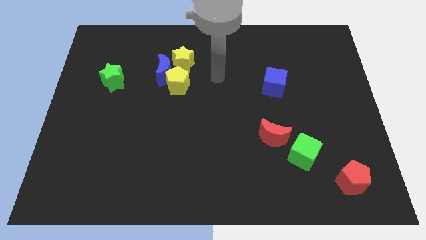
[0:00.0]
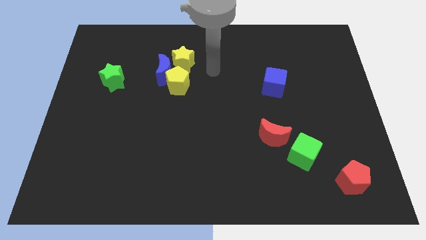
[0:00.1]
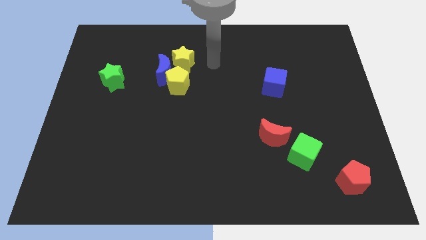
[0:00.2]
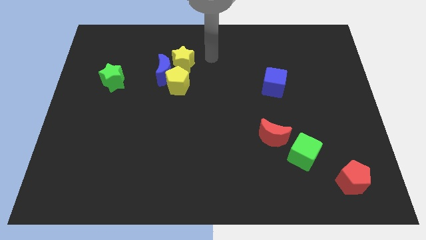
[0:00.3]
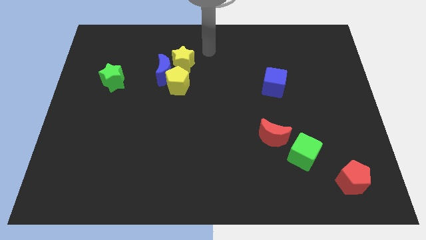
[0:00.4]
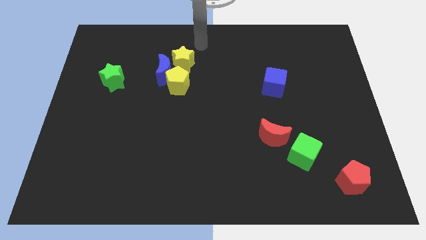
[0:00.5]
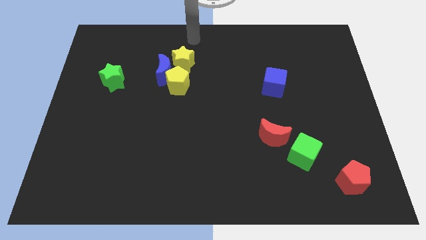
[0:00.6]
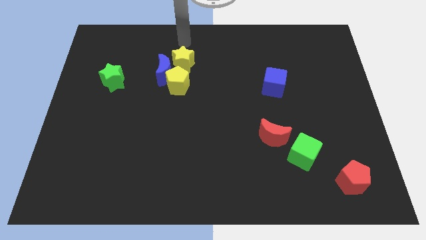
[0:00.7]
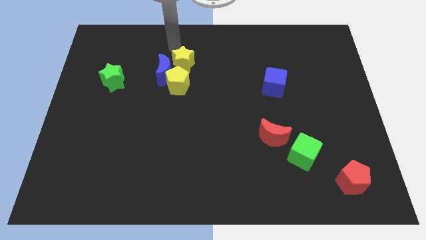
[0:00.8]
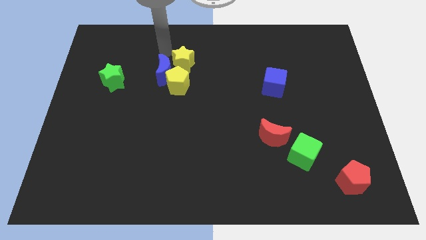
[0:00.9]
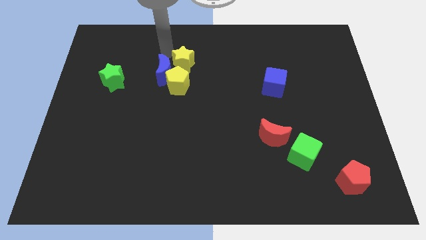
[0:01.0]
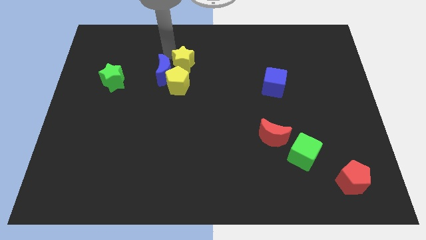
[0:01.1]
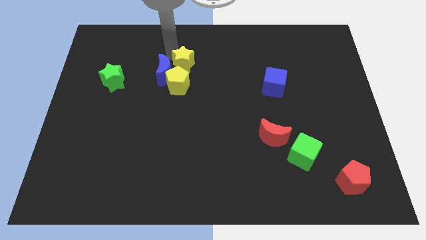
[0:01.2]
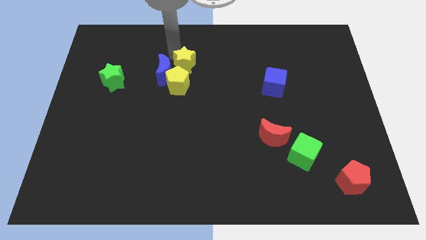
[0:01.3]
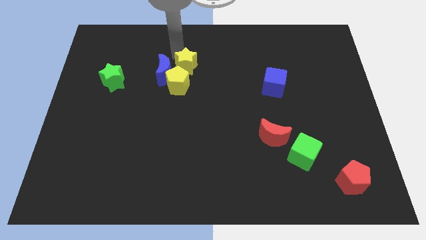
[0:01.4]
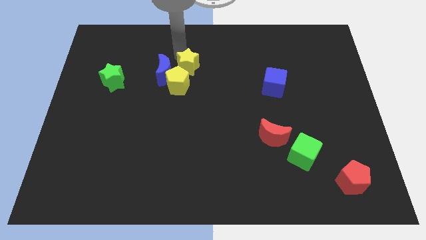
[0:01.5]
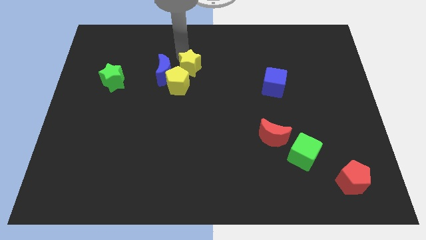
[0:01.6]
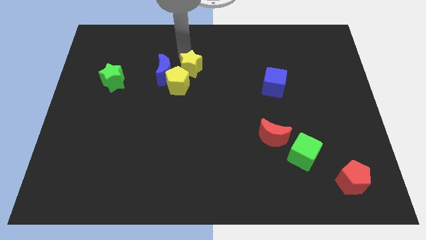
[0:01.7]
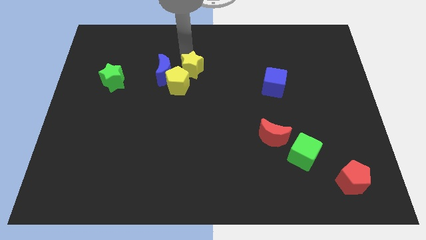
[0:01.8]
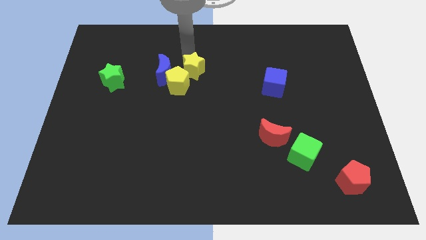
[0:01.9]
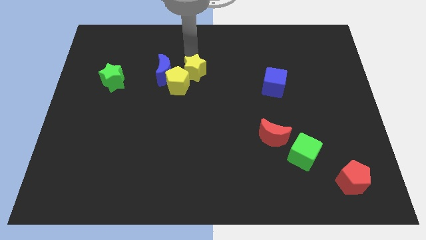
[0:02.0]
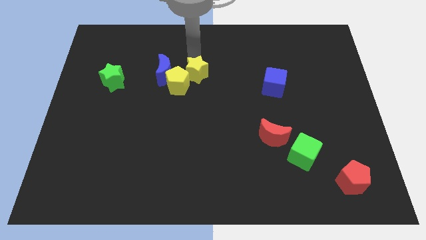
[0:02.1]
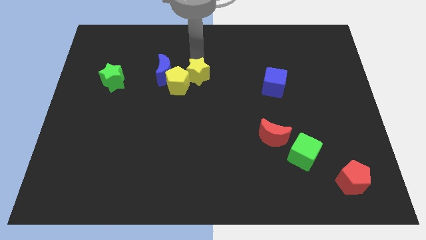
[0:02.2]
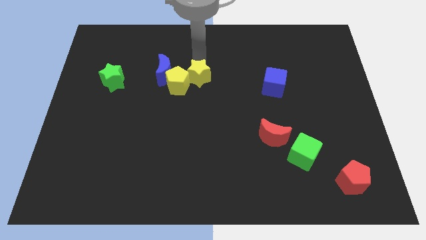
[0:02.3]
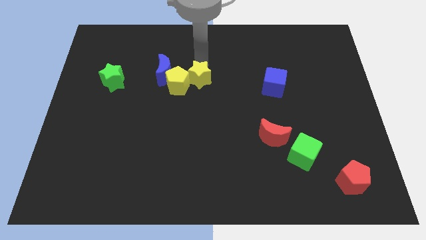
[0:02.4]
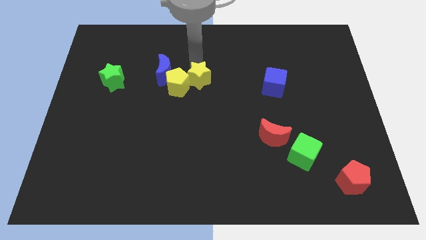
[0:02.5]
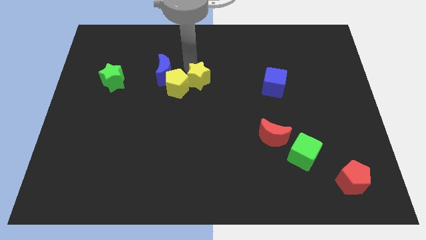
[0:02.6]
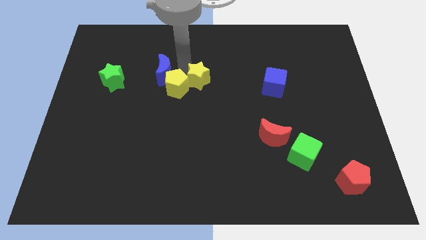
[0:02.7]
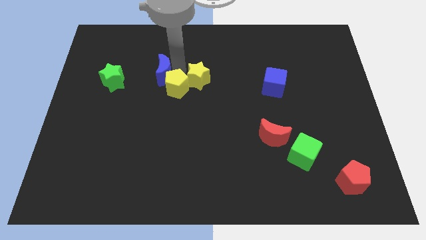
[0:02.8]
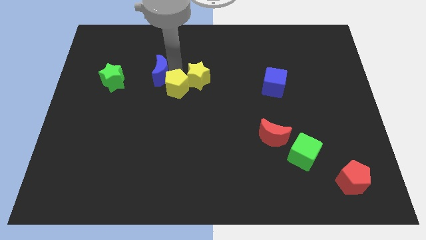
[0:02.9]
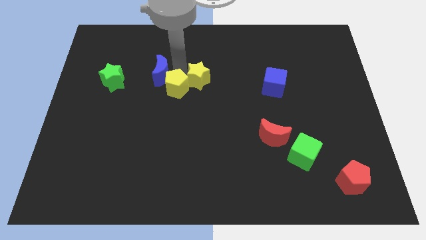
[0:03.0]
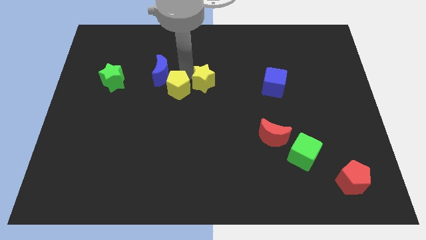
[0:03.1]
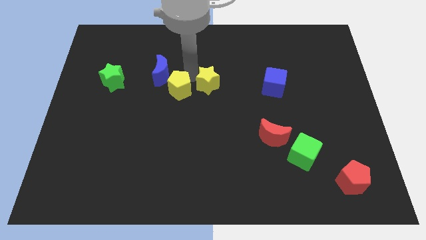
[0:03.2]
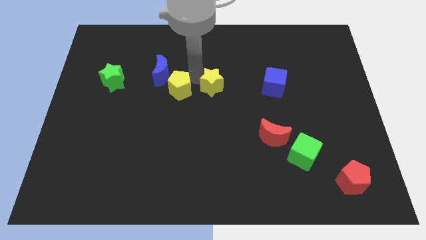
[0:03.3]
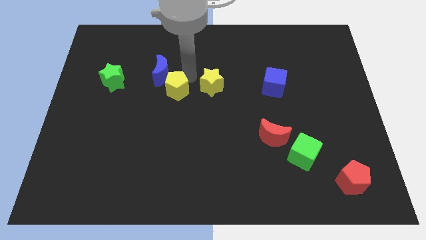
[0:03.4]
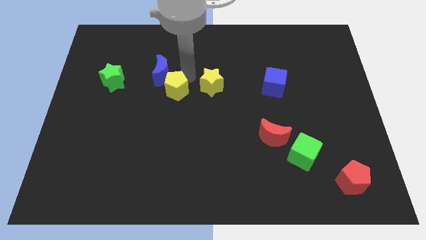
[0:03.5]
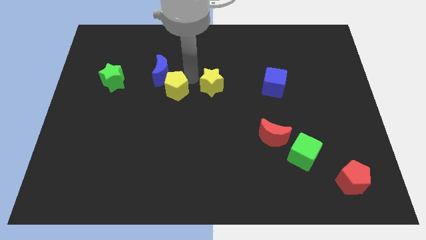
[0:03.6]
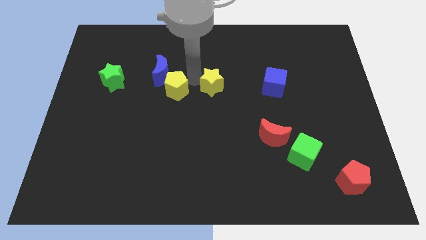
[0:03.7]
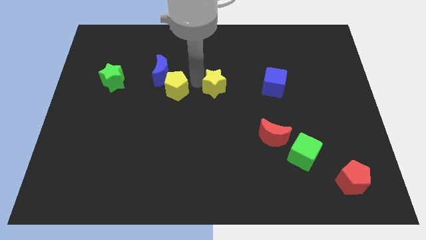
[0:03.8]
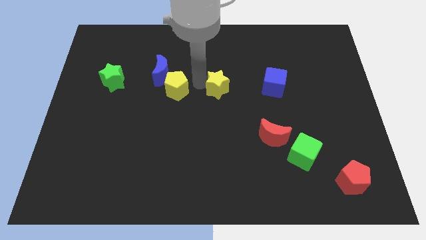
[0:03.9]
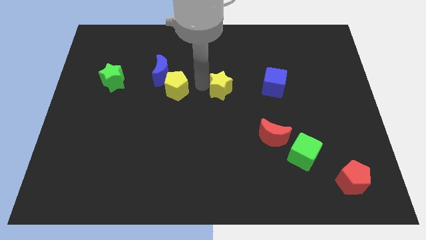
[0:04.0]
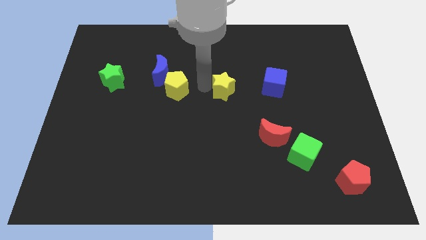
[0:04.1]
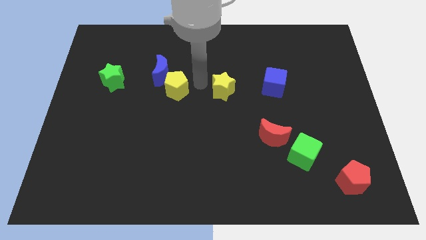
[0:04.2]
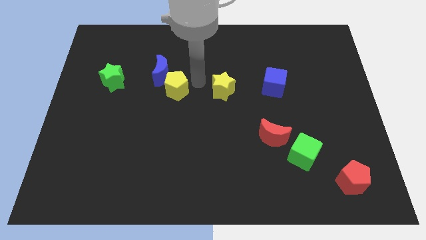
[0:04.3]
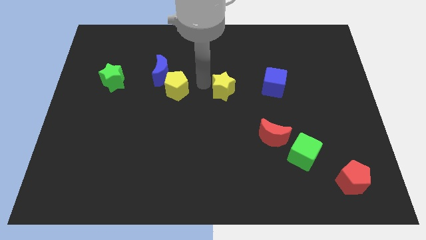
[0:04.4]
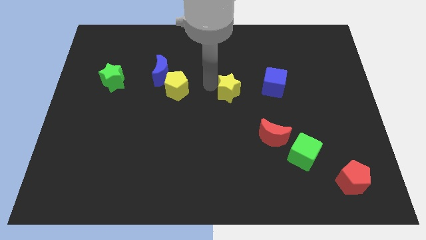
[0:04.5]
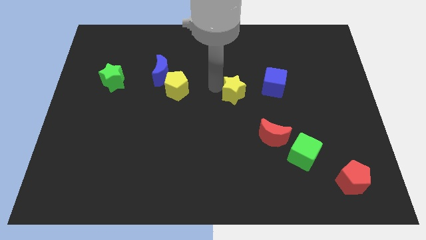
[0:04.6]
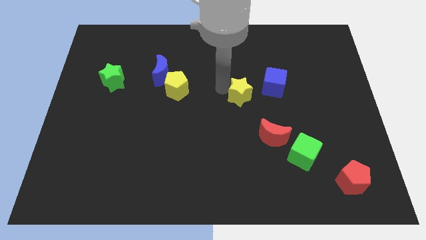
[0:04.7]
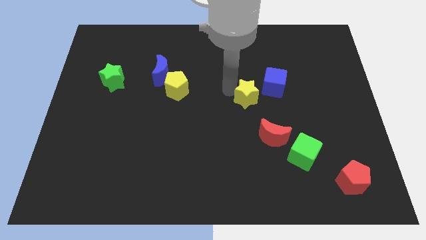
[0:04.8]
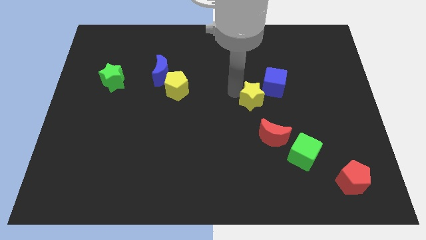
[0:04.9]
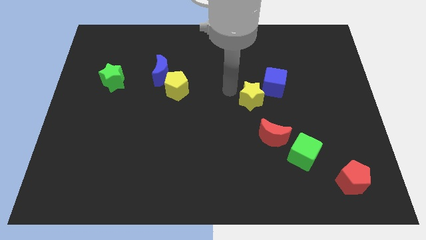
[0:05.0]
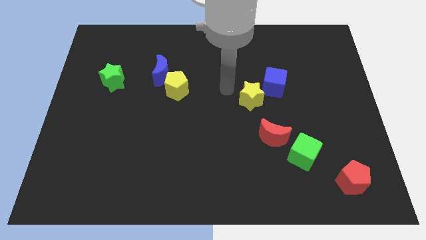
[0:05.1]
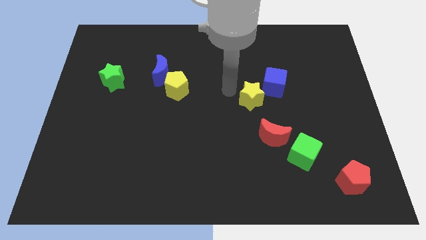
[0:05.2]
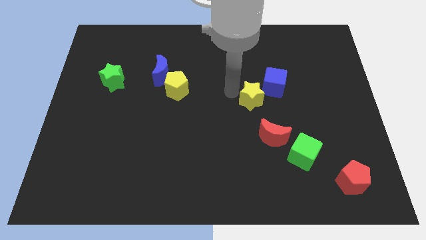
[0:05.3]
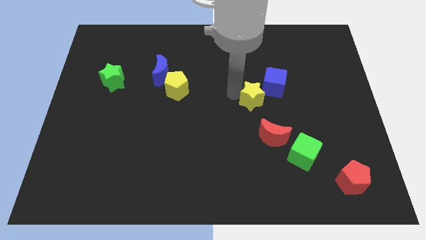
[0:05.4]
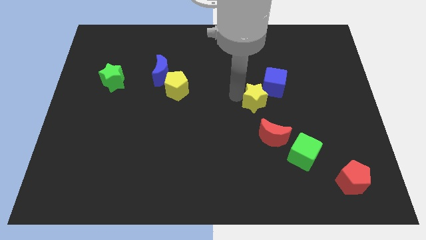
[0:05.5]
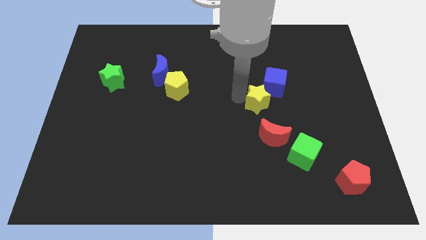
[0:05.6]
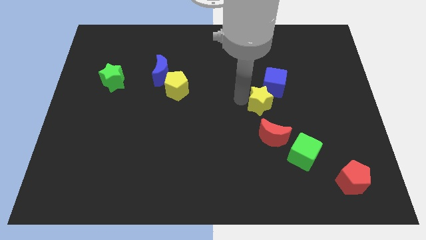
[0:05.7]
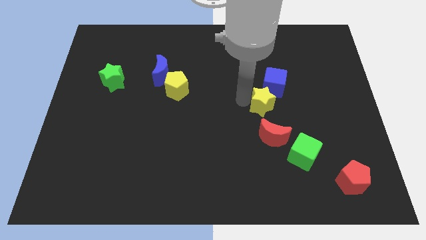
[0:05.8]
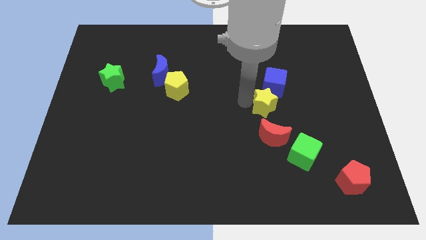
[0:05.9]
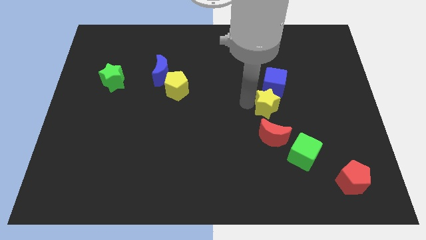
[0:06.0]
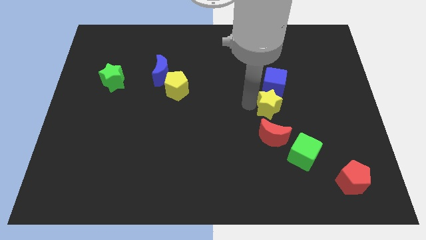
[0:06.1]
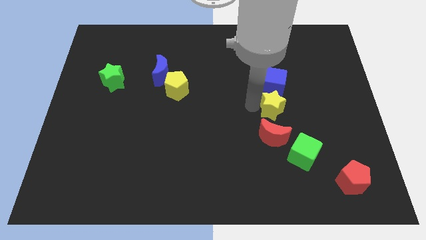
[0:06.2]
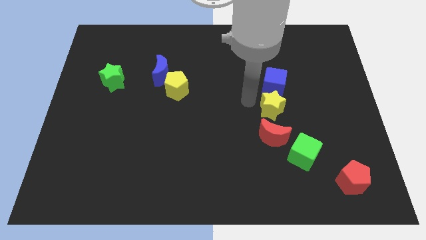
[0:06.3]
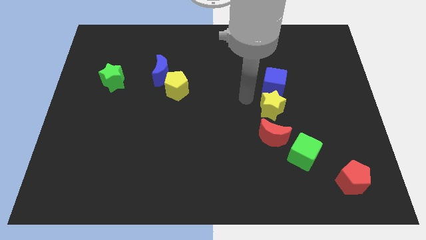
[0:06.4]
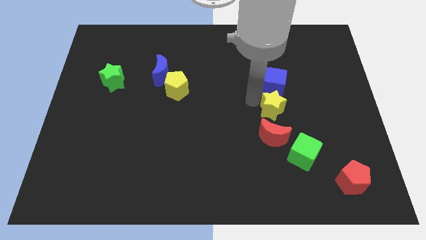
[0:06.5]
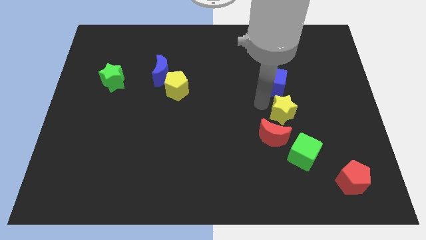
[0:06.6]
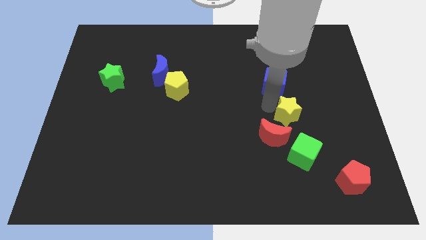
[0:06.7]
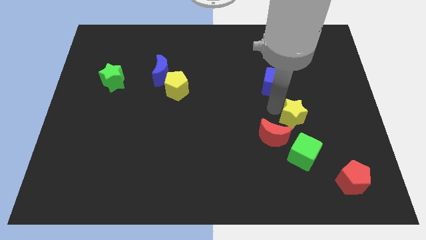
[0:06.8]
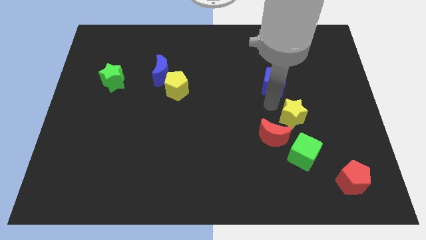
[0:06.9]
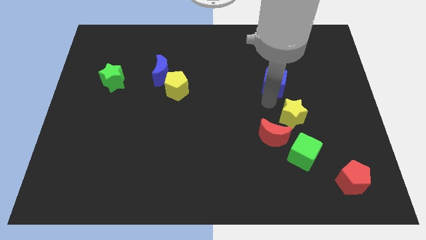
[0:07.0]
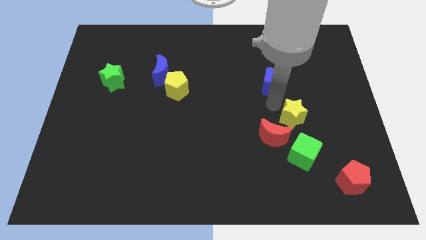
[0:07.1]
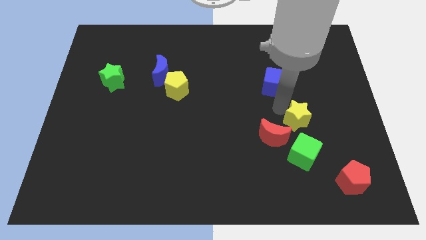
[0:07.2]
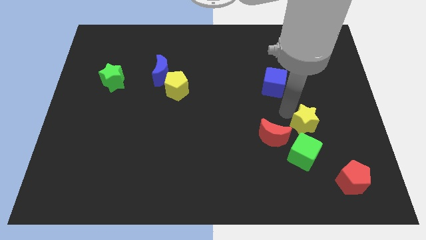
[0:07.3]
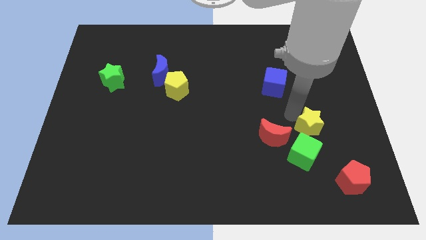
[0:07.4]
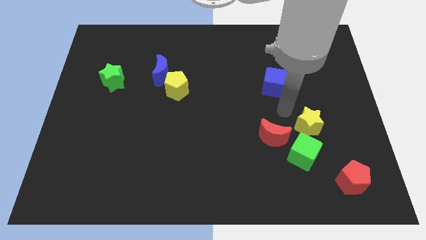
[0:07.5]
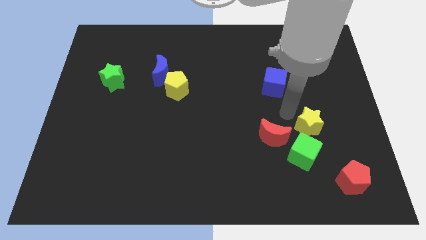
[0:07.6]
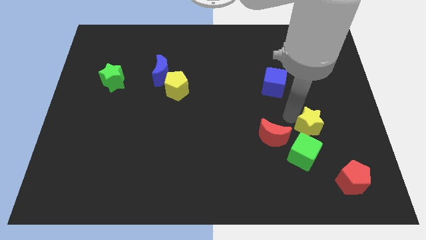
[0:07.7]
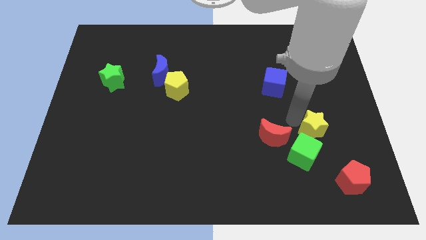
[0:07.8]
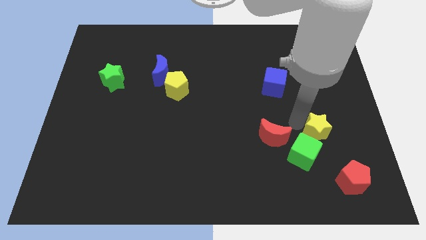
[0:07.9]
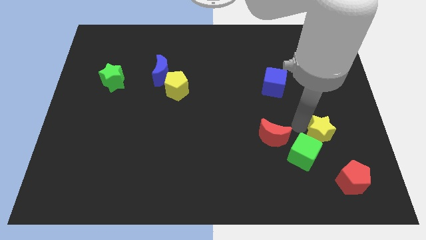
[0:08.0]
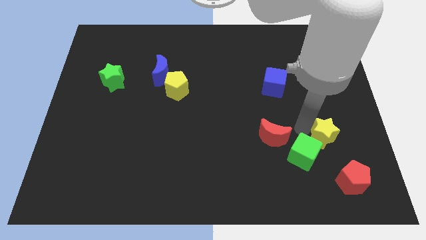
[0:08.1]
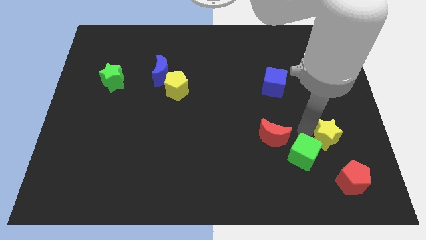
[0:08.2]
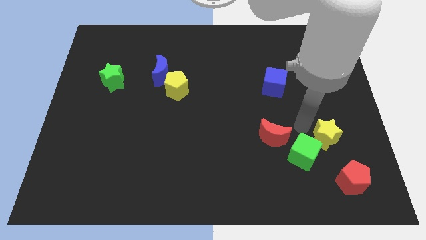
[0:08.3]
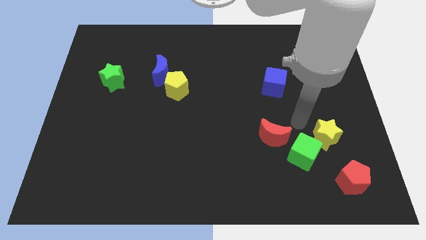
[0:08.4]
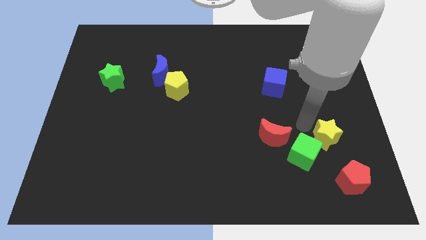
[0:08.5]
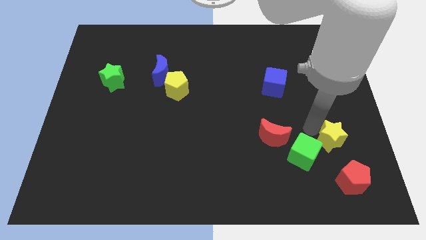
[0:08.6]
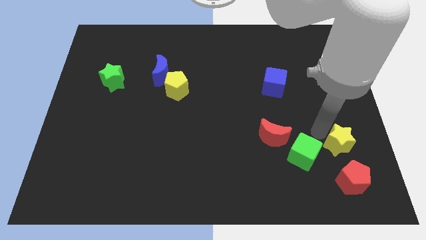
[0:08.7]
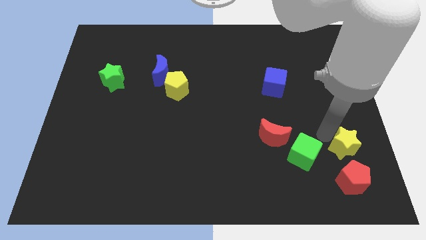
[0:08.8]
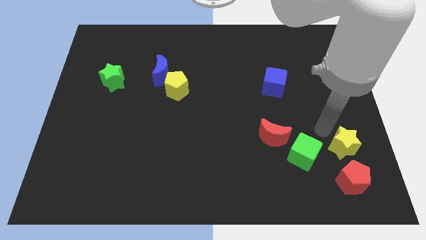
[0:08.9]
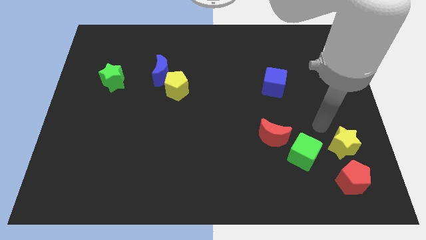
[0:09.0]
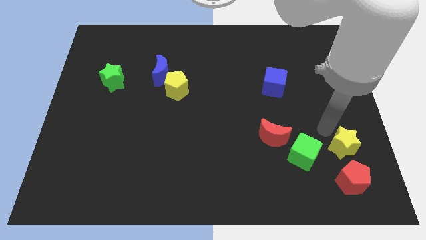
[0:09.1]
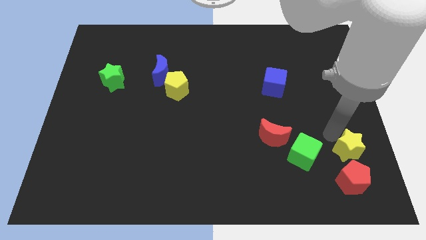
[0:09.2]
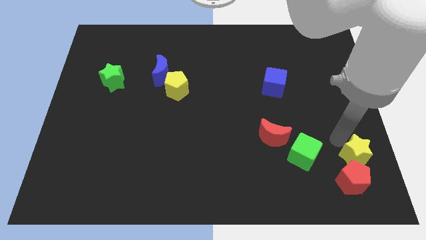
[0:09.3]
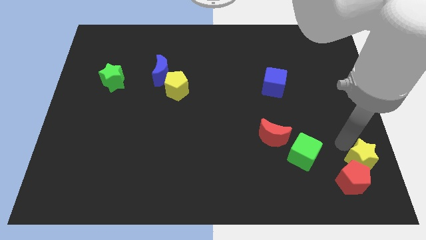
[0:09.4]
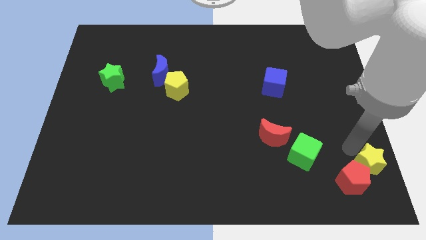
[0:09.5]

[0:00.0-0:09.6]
slide the yellow star to the bottom right of the board
